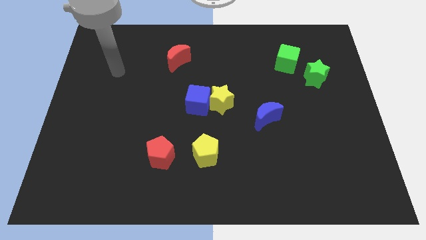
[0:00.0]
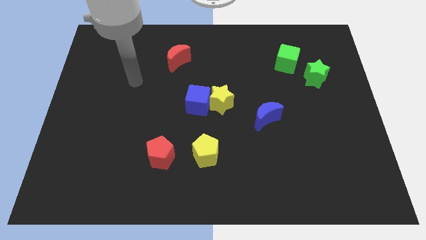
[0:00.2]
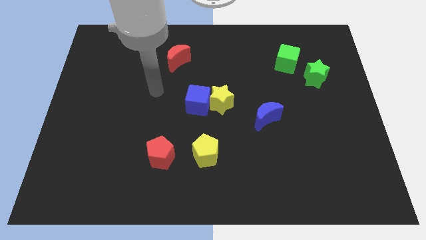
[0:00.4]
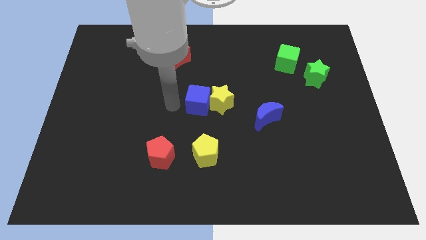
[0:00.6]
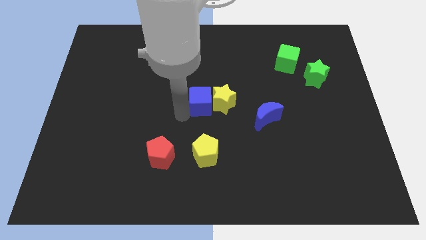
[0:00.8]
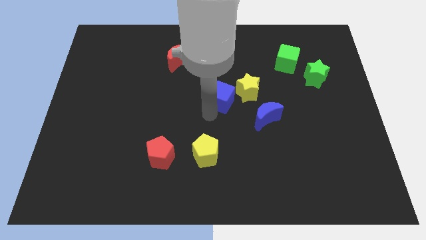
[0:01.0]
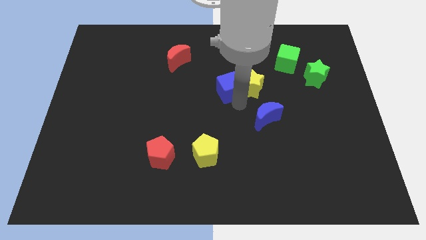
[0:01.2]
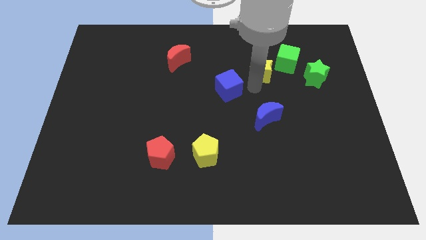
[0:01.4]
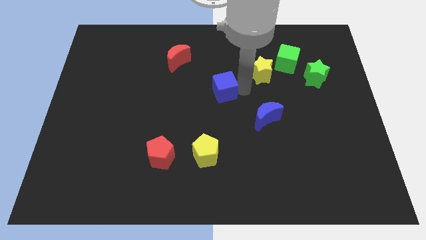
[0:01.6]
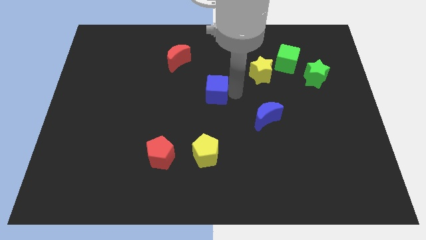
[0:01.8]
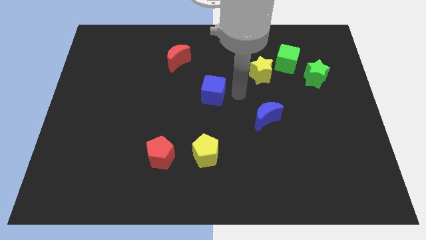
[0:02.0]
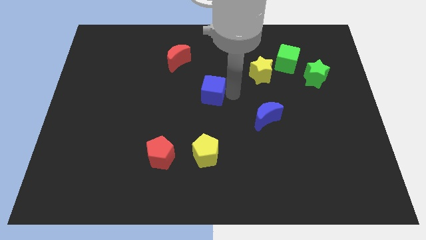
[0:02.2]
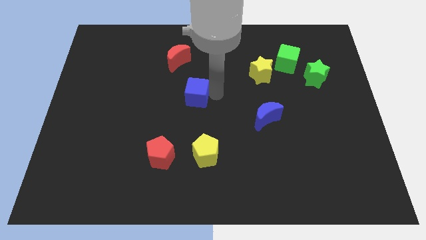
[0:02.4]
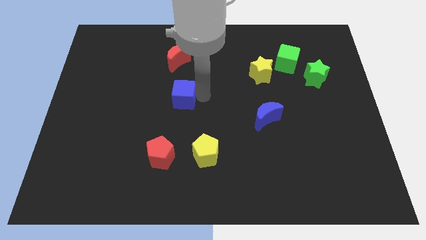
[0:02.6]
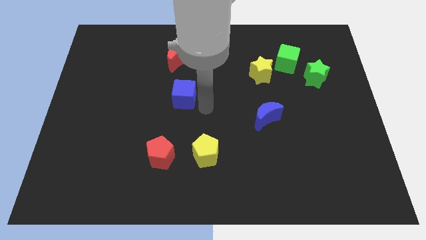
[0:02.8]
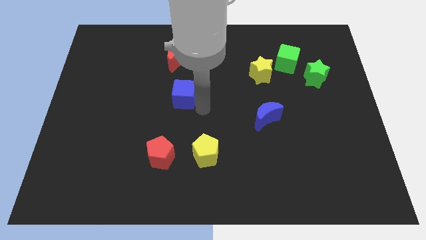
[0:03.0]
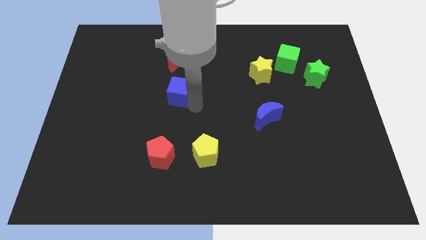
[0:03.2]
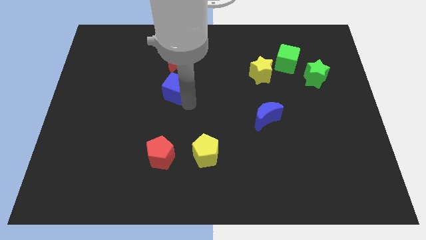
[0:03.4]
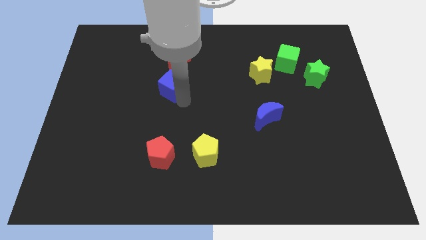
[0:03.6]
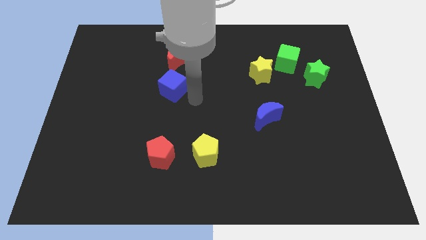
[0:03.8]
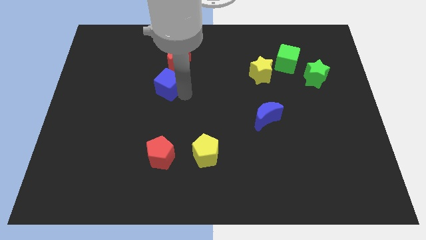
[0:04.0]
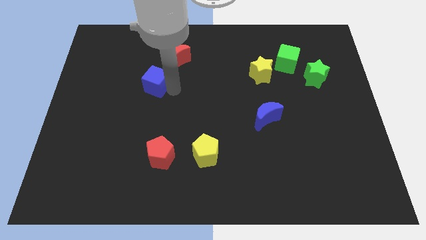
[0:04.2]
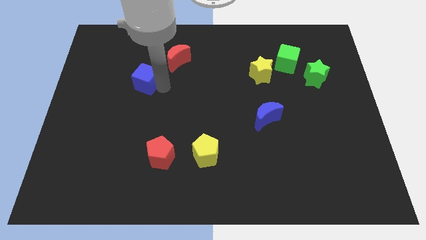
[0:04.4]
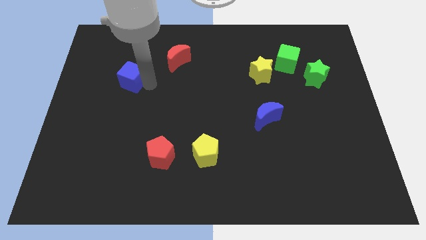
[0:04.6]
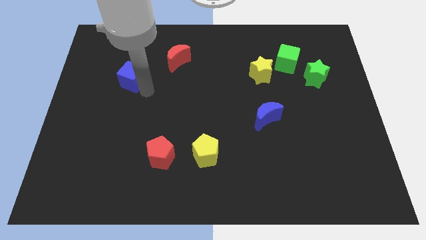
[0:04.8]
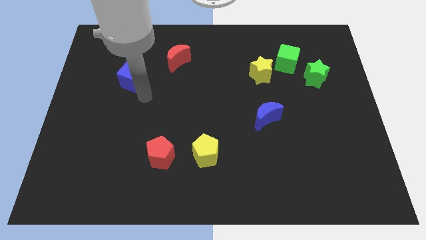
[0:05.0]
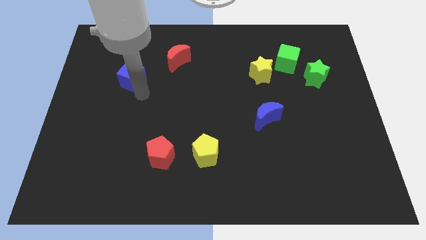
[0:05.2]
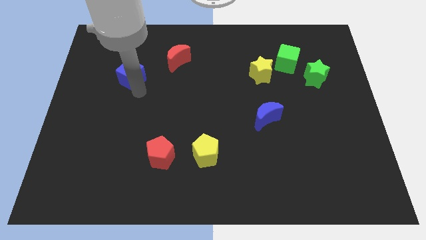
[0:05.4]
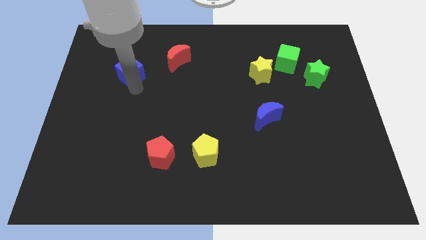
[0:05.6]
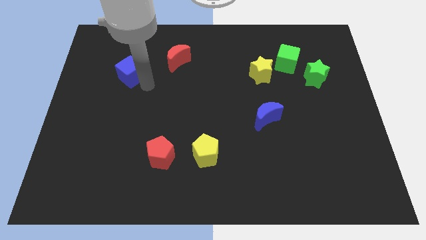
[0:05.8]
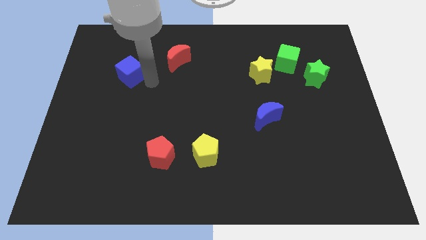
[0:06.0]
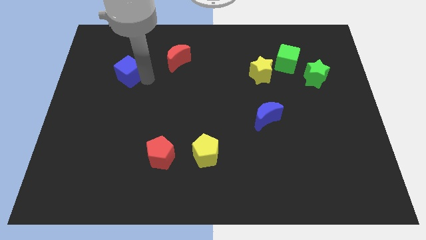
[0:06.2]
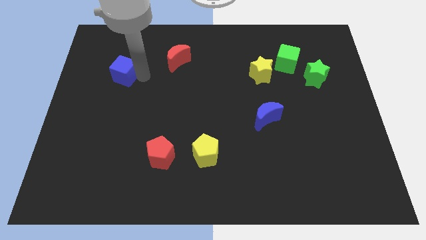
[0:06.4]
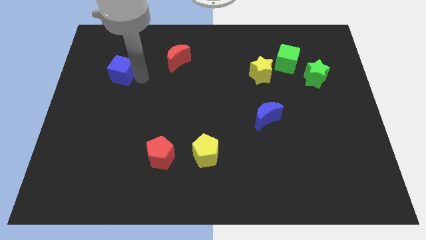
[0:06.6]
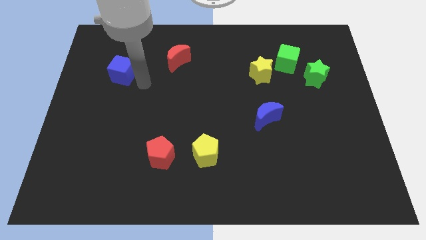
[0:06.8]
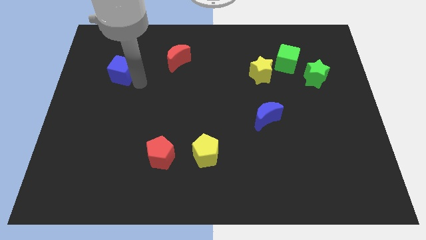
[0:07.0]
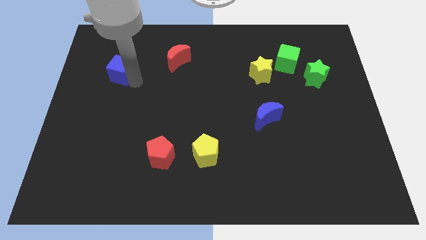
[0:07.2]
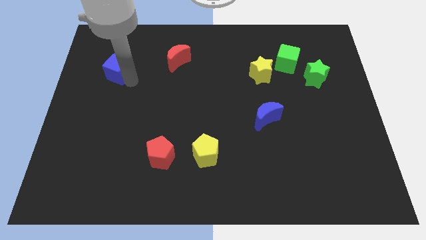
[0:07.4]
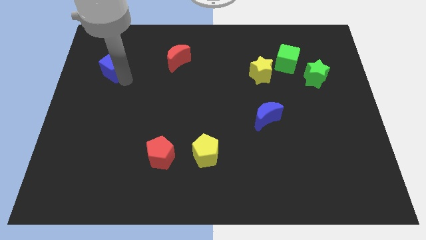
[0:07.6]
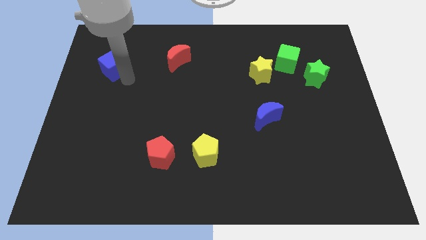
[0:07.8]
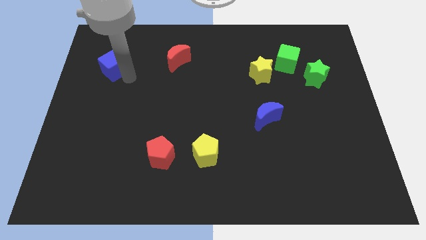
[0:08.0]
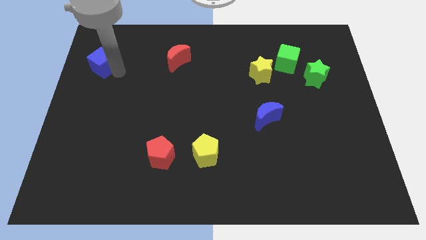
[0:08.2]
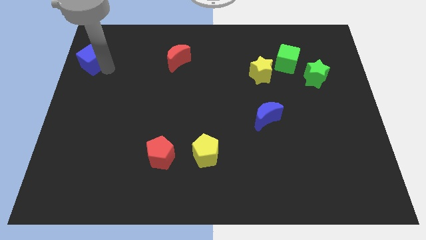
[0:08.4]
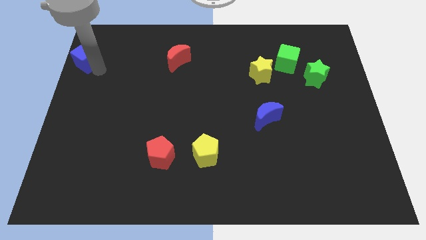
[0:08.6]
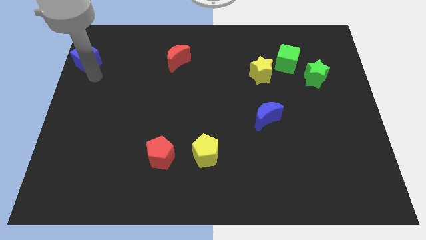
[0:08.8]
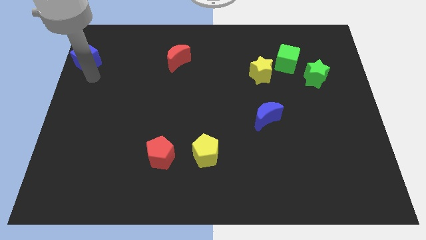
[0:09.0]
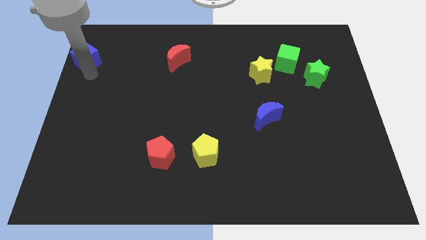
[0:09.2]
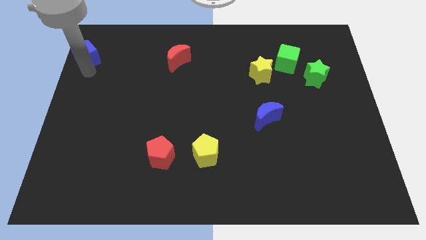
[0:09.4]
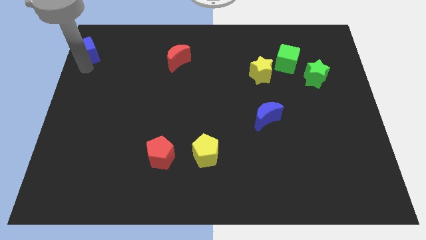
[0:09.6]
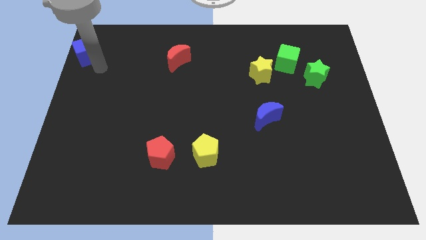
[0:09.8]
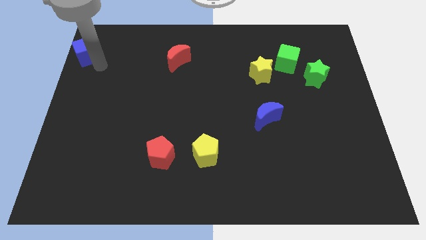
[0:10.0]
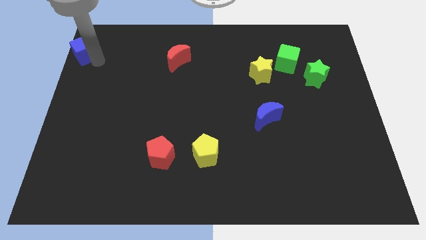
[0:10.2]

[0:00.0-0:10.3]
put the blue cube to the top left of the board

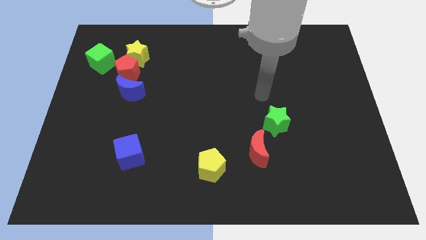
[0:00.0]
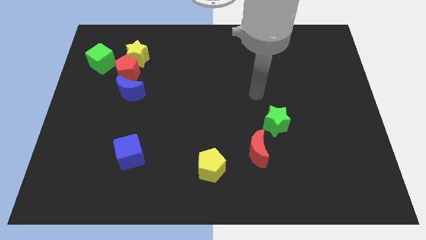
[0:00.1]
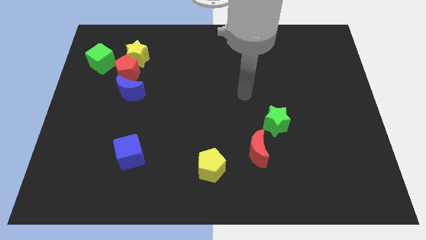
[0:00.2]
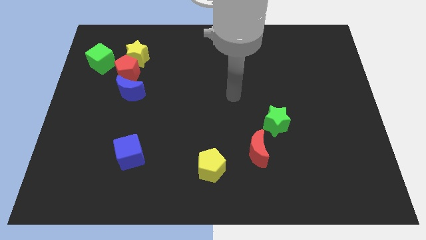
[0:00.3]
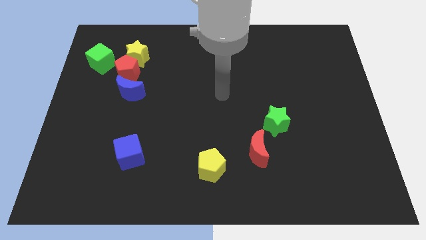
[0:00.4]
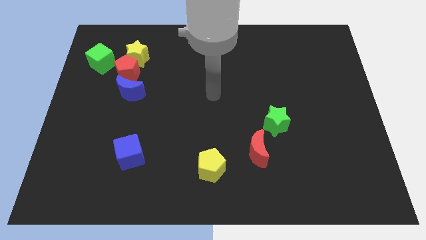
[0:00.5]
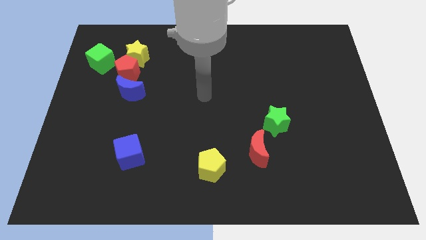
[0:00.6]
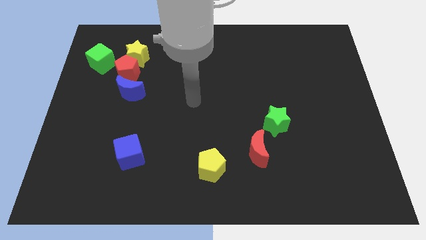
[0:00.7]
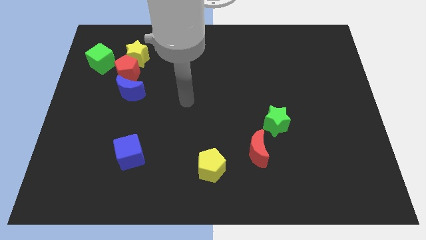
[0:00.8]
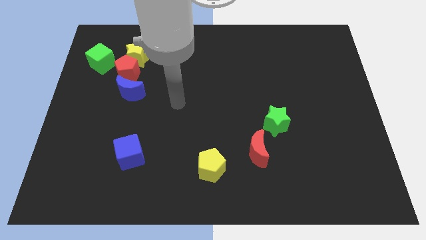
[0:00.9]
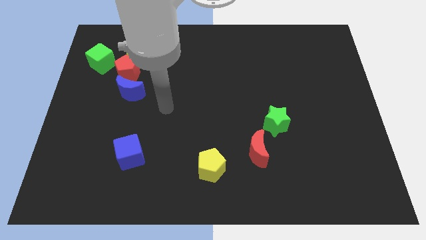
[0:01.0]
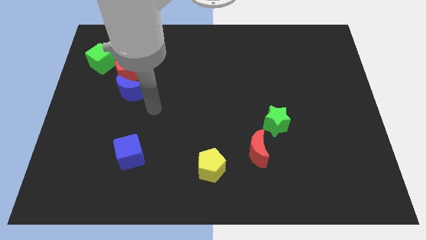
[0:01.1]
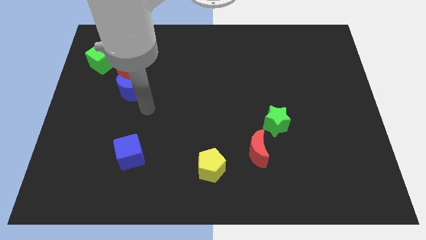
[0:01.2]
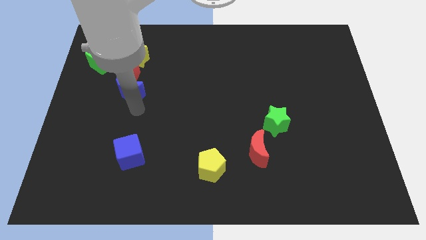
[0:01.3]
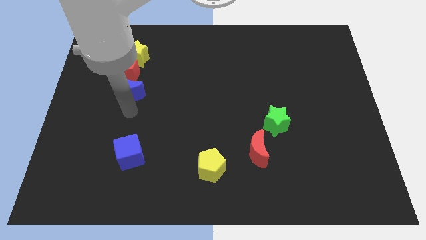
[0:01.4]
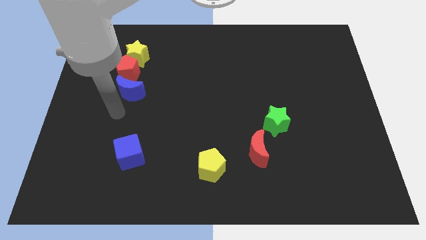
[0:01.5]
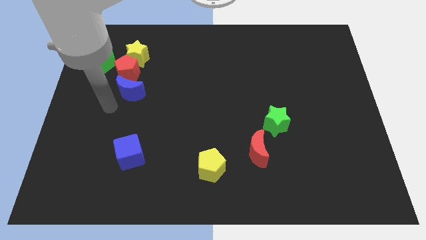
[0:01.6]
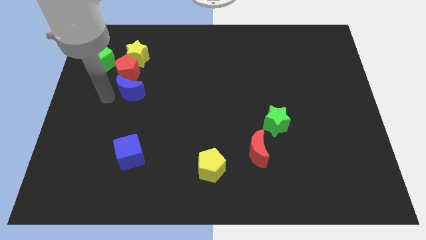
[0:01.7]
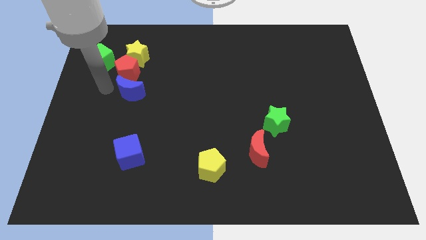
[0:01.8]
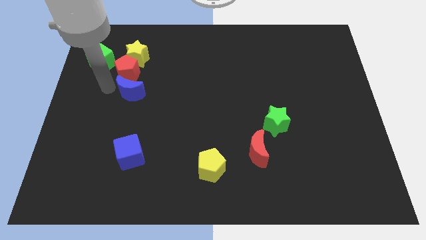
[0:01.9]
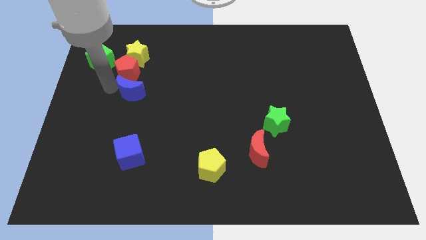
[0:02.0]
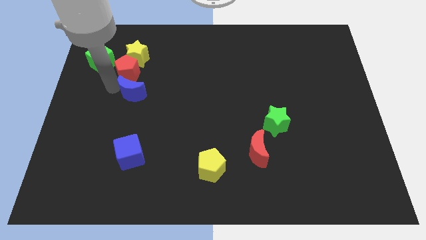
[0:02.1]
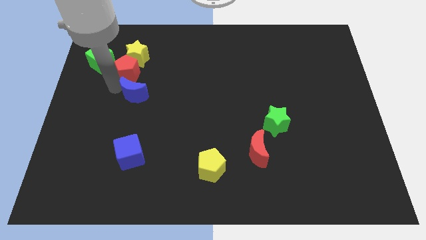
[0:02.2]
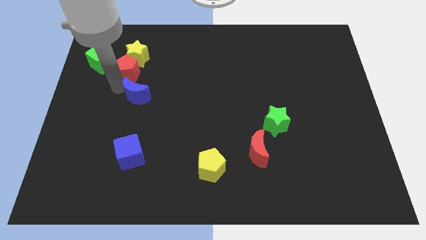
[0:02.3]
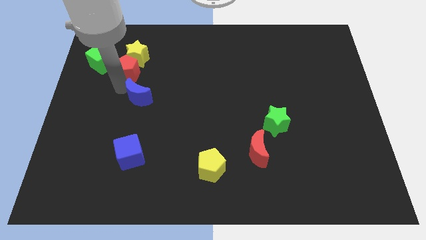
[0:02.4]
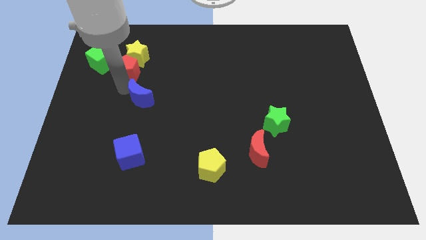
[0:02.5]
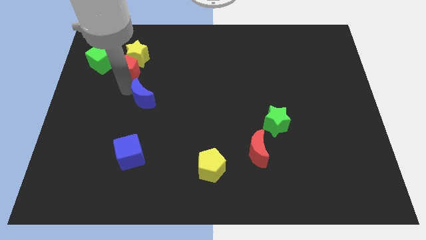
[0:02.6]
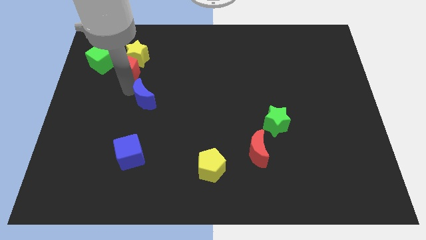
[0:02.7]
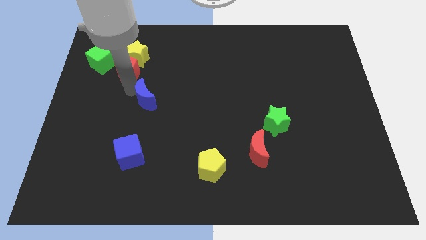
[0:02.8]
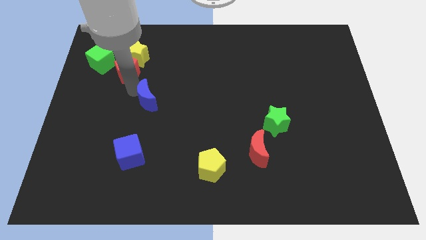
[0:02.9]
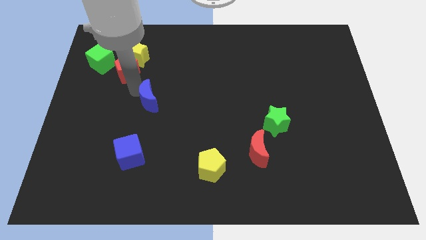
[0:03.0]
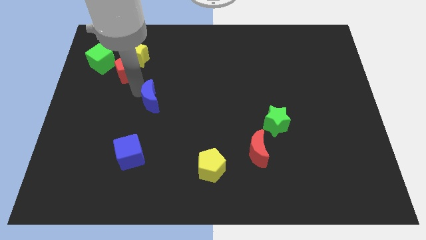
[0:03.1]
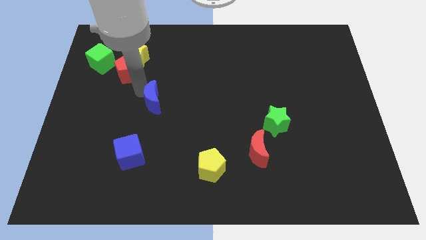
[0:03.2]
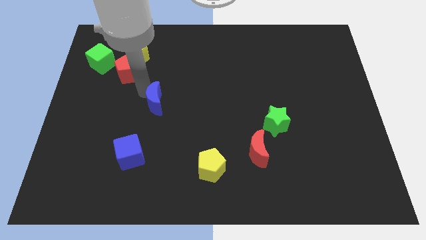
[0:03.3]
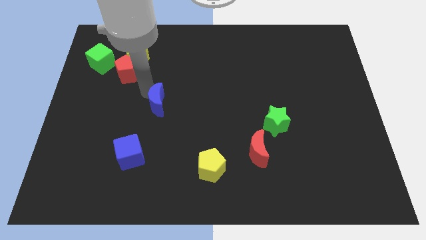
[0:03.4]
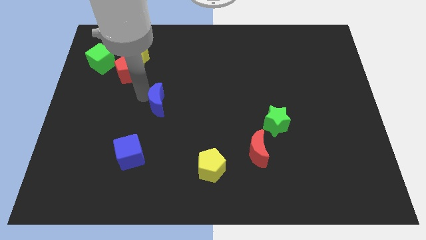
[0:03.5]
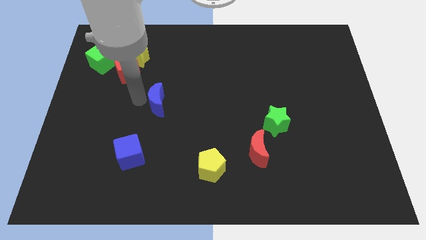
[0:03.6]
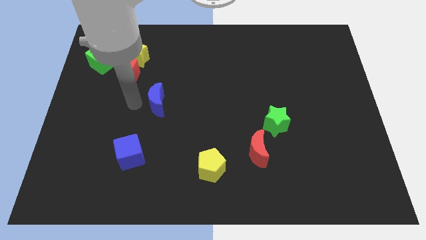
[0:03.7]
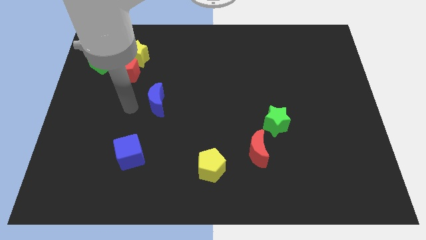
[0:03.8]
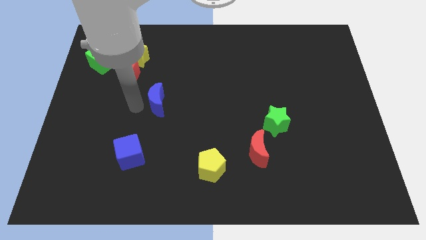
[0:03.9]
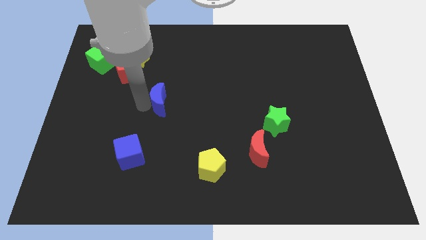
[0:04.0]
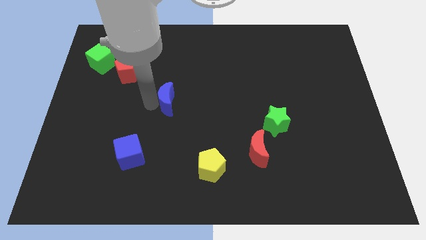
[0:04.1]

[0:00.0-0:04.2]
move the blue moon to the middle
